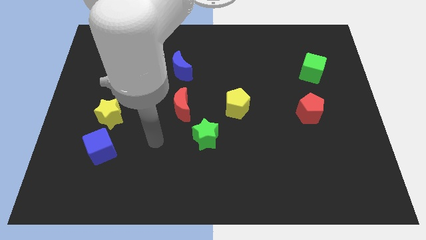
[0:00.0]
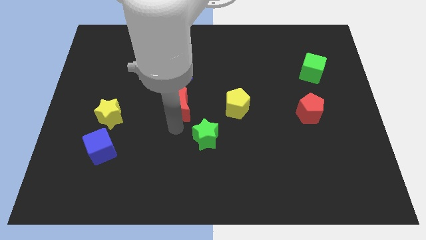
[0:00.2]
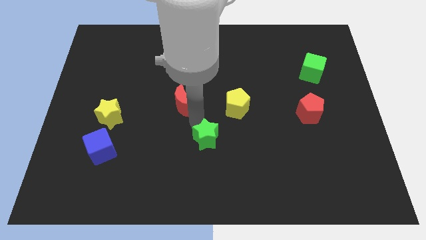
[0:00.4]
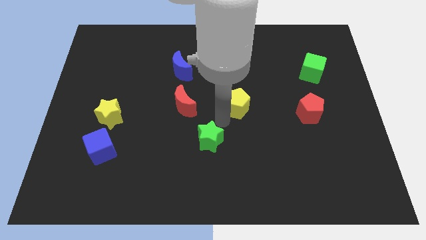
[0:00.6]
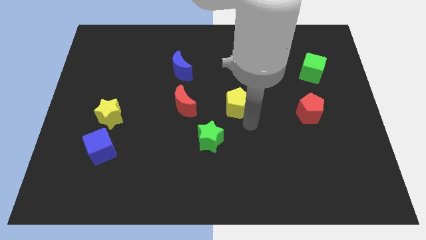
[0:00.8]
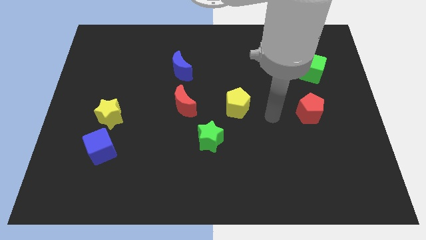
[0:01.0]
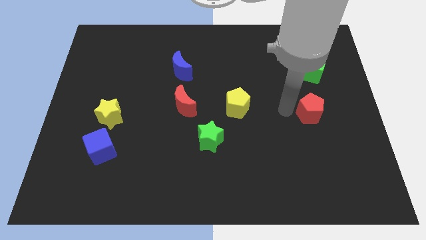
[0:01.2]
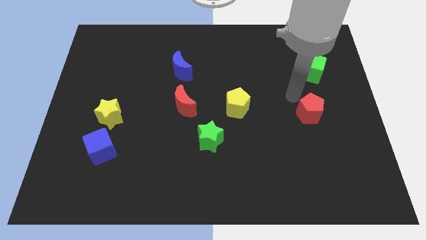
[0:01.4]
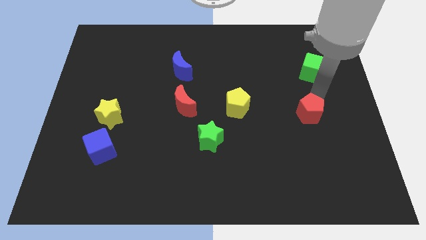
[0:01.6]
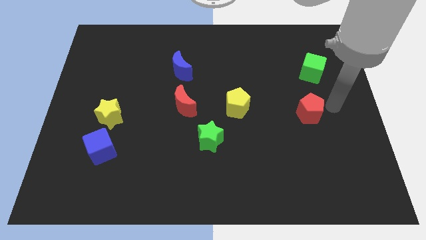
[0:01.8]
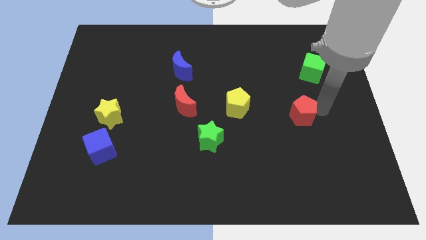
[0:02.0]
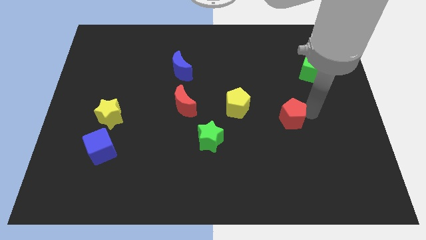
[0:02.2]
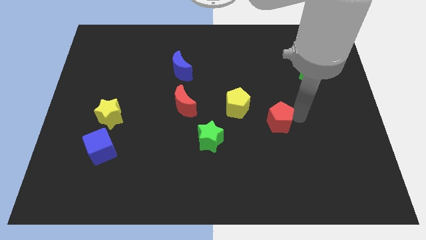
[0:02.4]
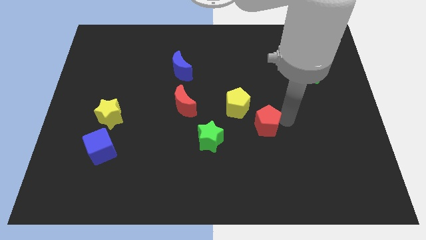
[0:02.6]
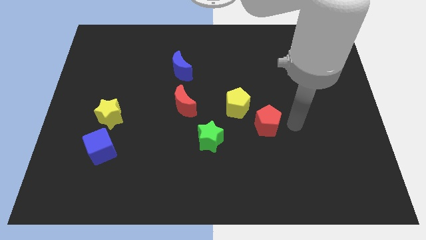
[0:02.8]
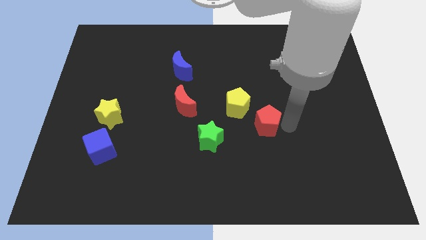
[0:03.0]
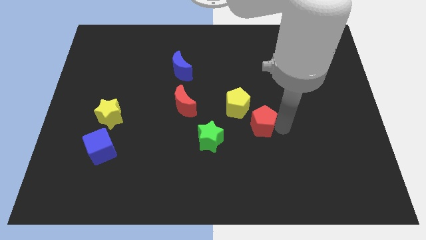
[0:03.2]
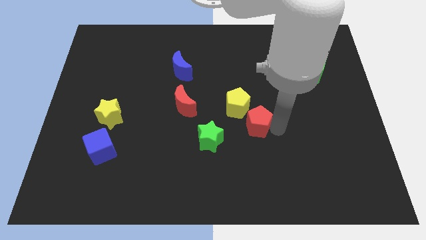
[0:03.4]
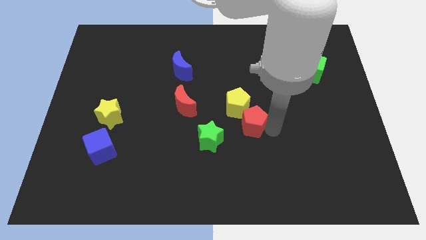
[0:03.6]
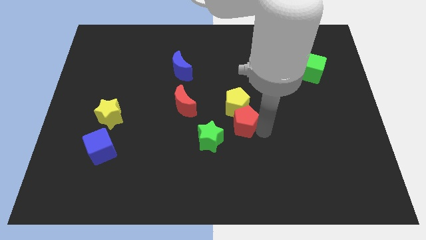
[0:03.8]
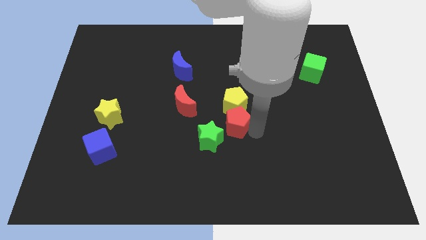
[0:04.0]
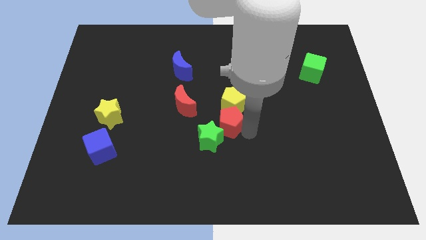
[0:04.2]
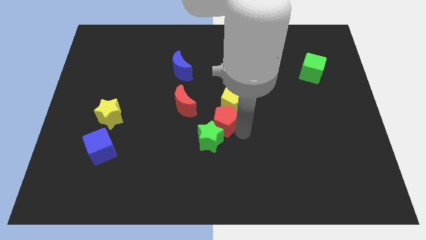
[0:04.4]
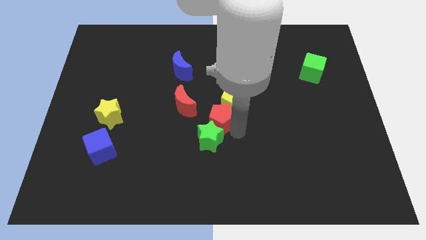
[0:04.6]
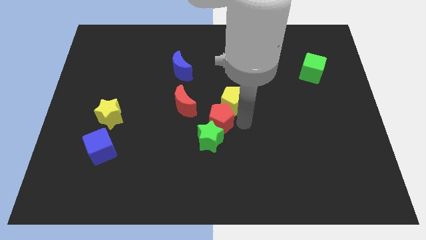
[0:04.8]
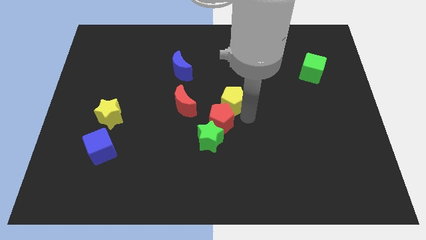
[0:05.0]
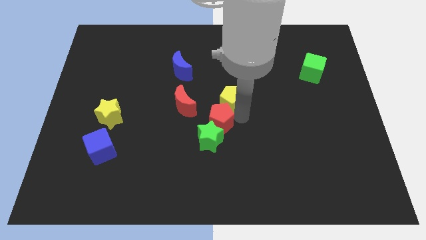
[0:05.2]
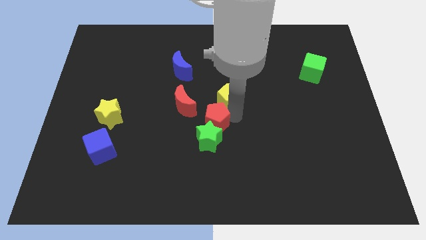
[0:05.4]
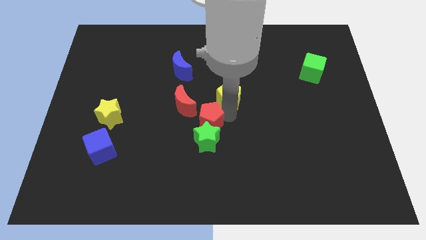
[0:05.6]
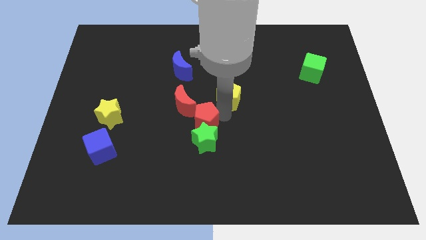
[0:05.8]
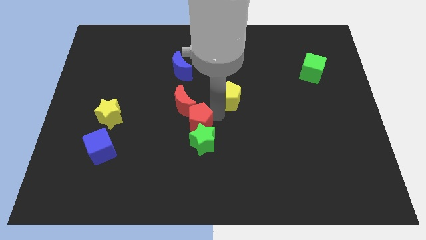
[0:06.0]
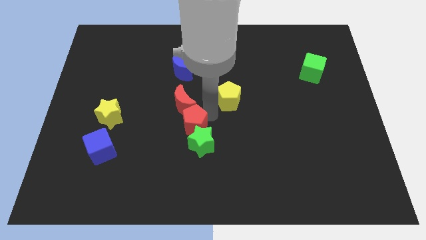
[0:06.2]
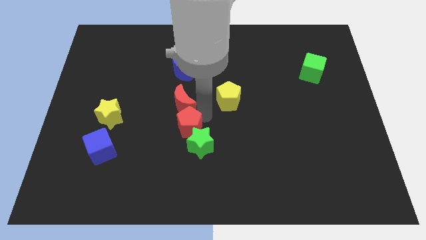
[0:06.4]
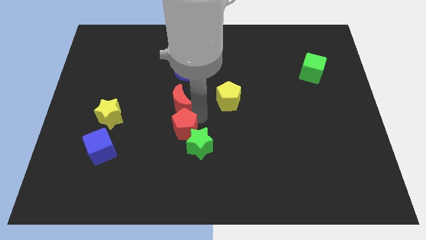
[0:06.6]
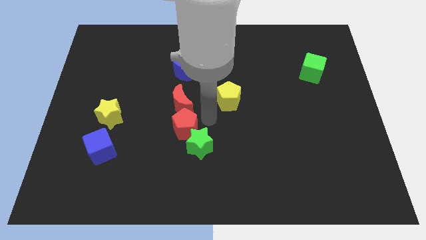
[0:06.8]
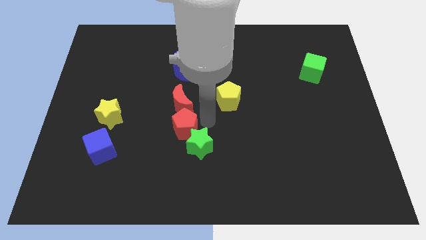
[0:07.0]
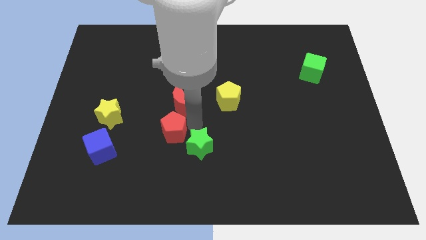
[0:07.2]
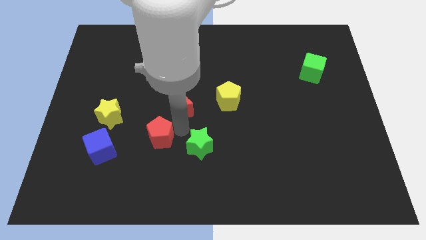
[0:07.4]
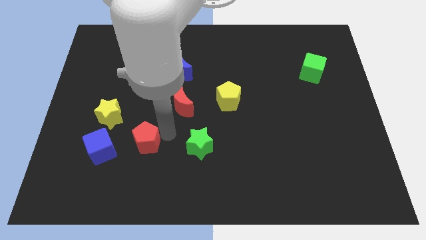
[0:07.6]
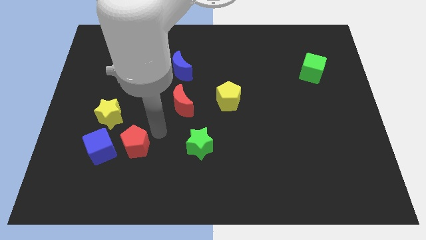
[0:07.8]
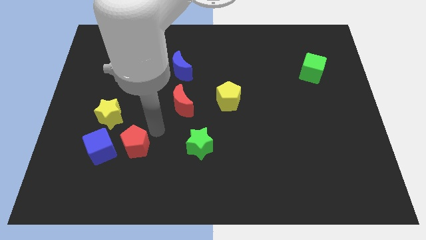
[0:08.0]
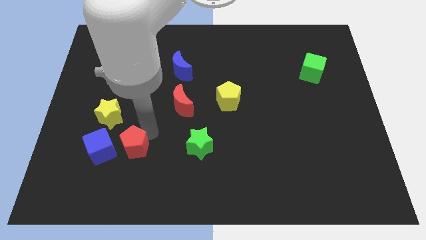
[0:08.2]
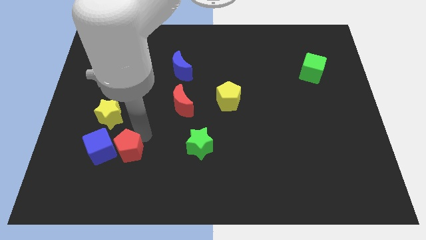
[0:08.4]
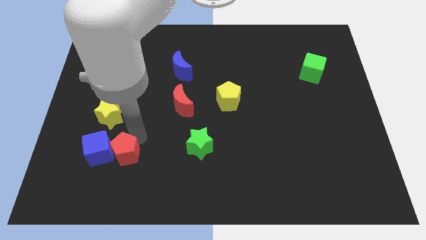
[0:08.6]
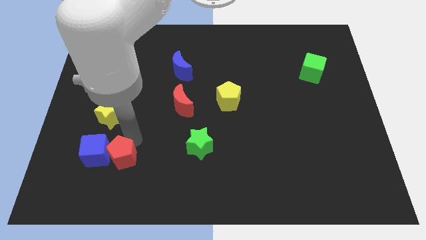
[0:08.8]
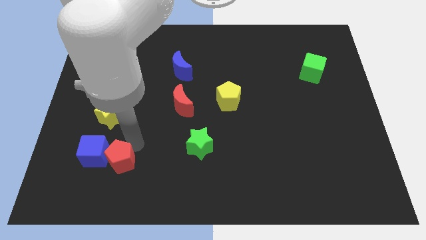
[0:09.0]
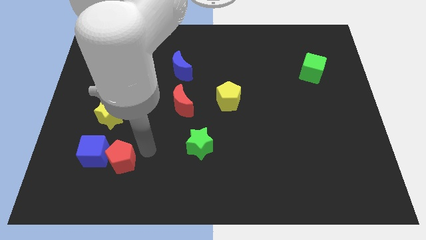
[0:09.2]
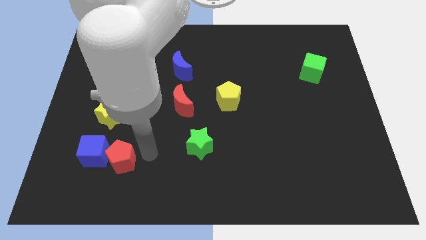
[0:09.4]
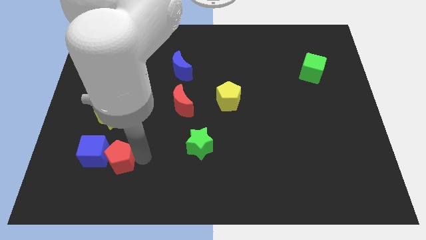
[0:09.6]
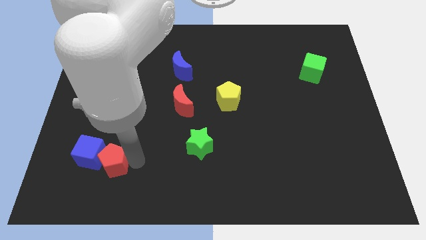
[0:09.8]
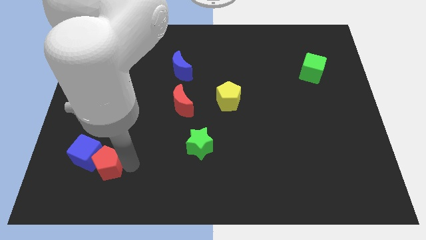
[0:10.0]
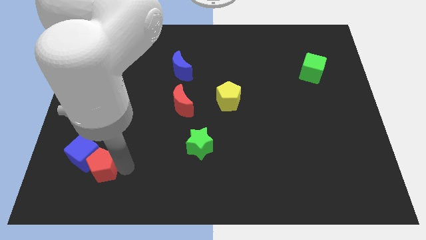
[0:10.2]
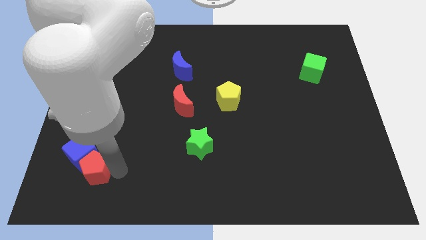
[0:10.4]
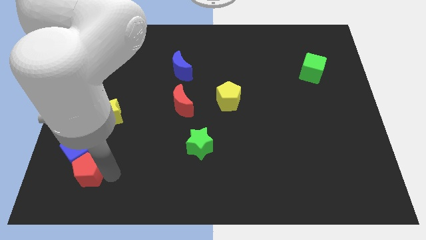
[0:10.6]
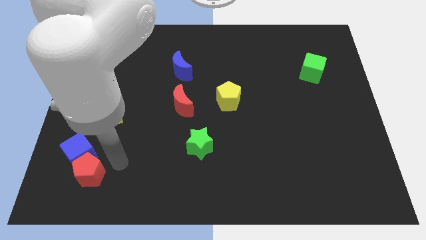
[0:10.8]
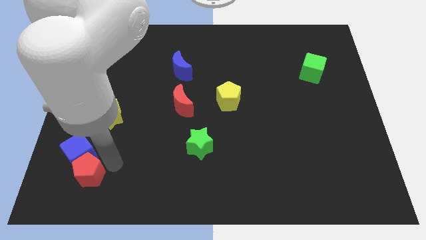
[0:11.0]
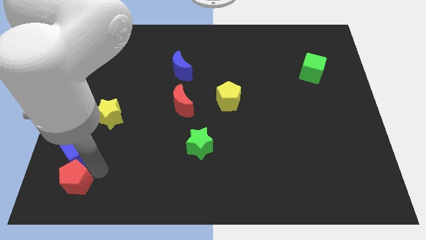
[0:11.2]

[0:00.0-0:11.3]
move the red pentagon to the lower left corner
